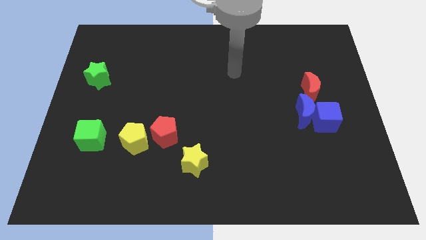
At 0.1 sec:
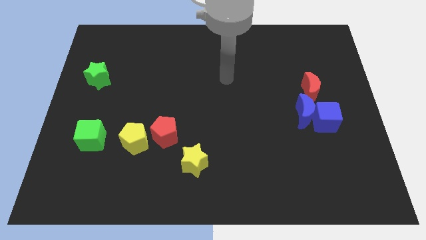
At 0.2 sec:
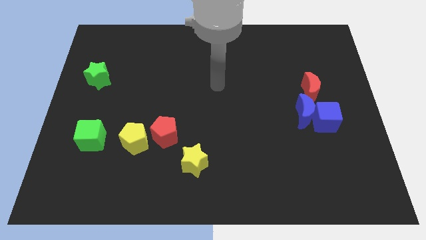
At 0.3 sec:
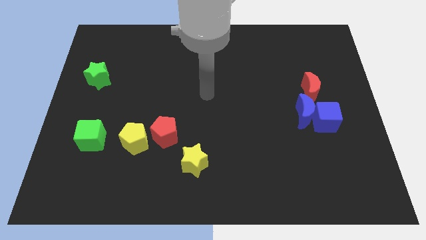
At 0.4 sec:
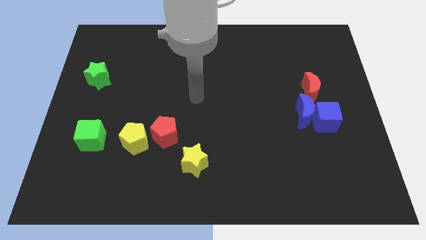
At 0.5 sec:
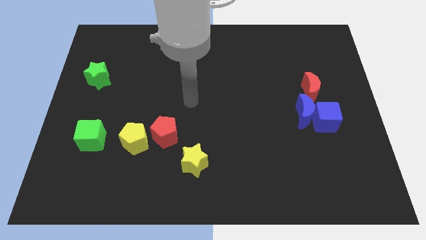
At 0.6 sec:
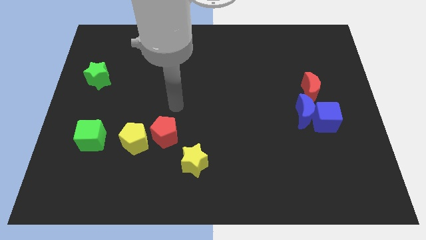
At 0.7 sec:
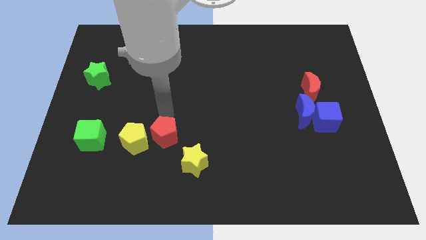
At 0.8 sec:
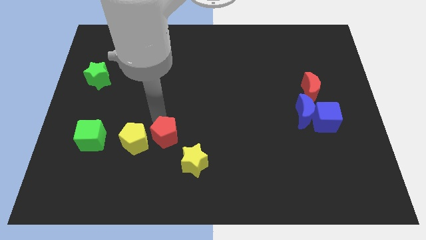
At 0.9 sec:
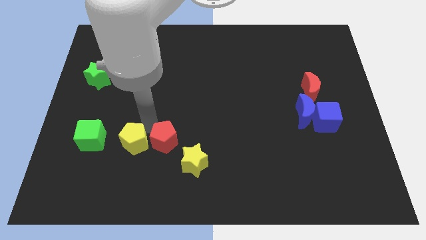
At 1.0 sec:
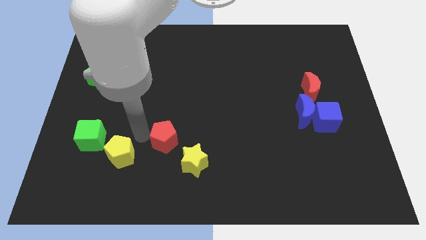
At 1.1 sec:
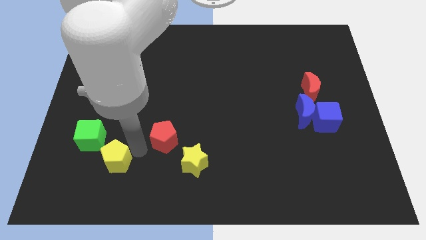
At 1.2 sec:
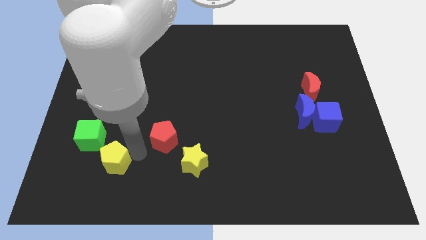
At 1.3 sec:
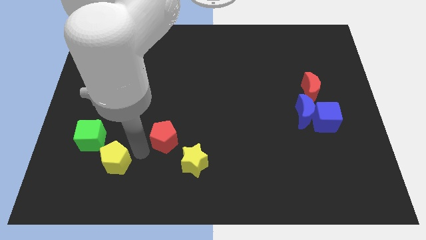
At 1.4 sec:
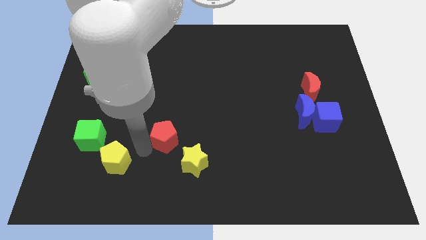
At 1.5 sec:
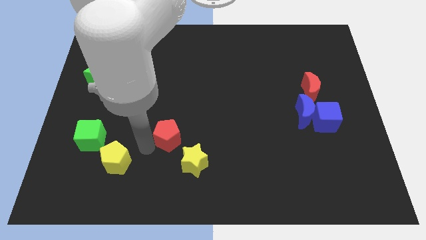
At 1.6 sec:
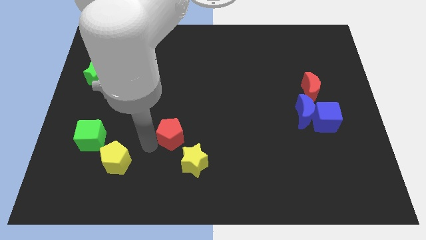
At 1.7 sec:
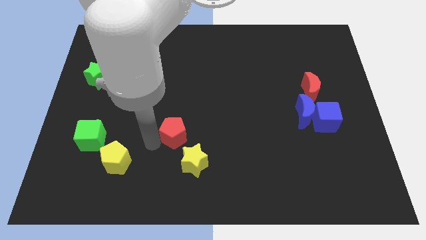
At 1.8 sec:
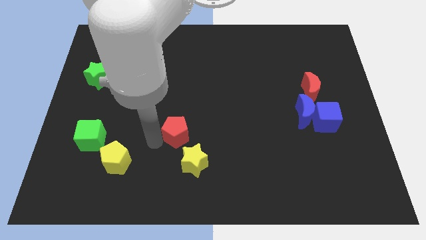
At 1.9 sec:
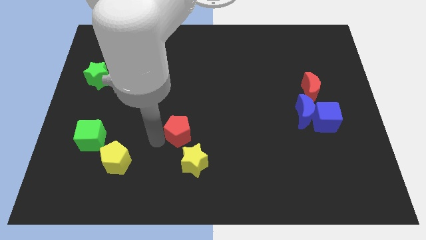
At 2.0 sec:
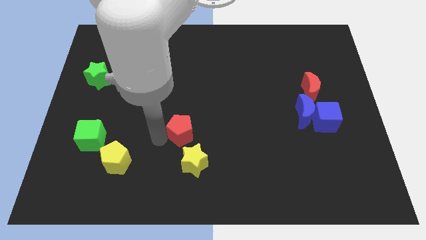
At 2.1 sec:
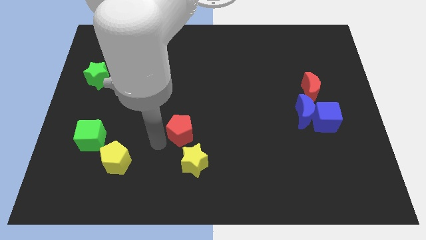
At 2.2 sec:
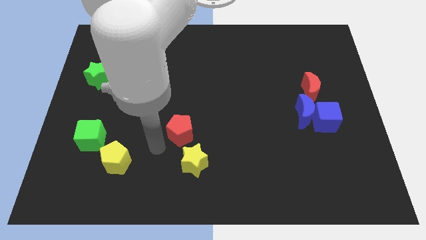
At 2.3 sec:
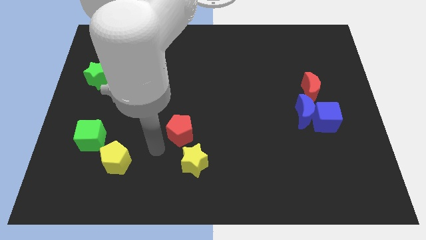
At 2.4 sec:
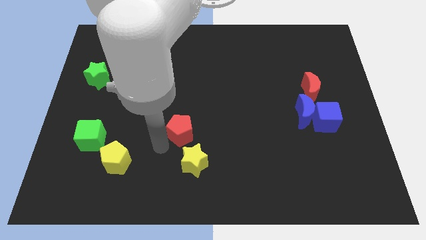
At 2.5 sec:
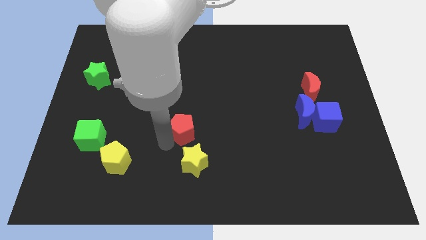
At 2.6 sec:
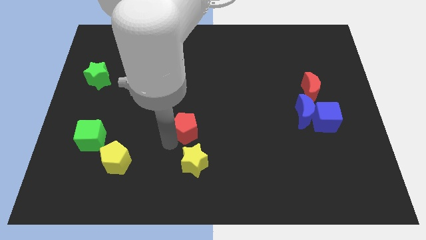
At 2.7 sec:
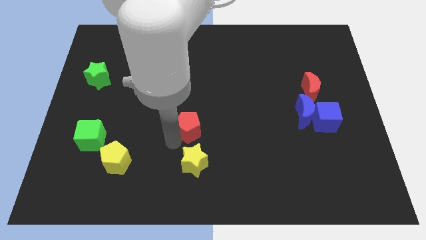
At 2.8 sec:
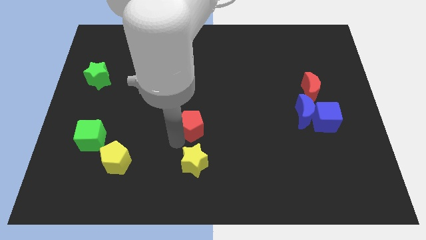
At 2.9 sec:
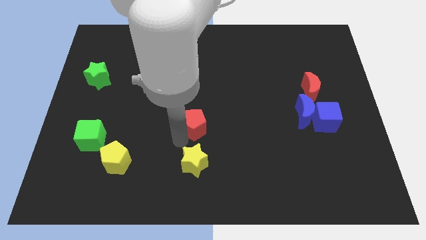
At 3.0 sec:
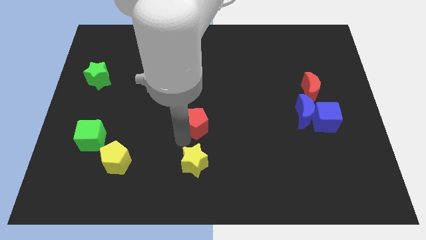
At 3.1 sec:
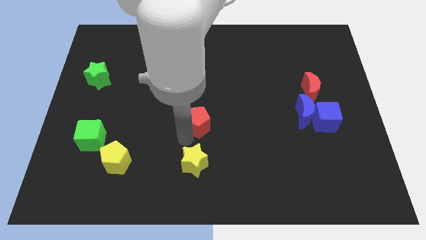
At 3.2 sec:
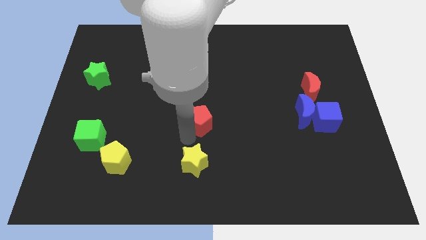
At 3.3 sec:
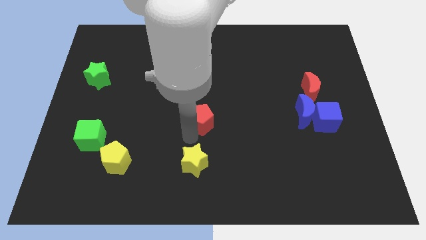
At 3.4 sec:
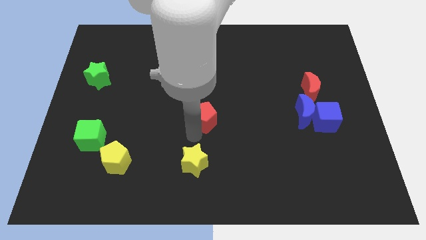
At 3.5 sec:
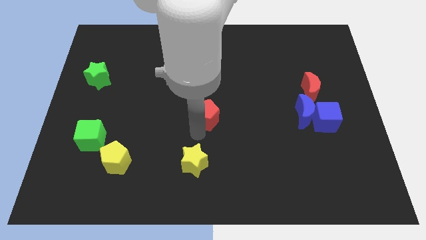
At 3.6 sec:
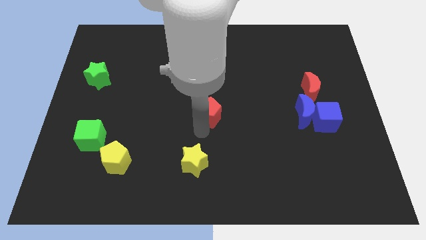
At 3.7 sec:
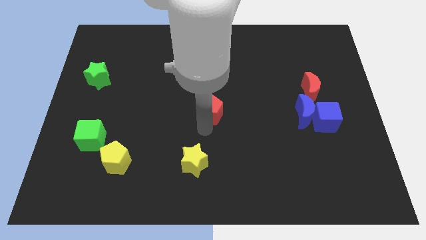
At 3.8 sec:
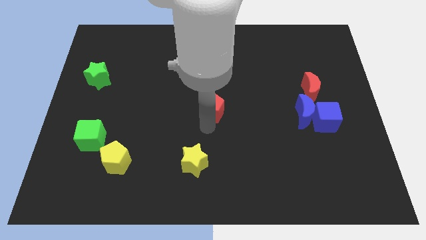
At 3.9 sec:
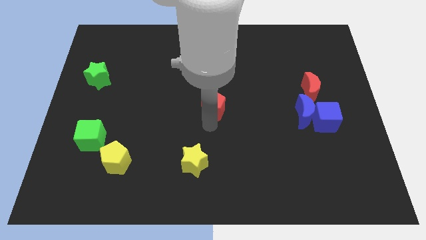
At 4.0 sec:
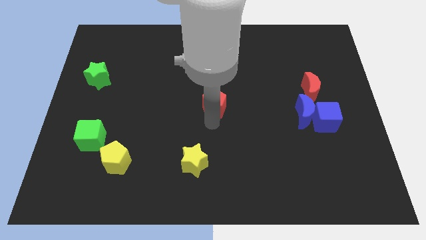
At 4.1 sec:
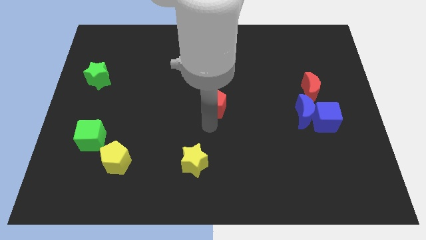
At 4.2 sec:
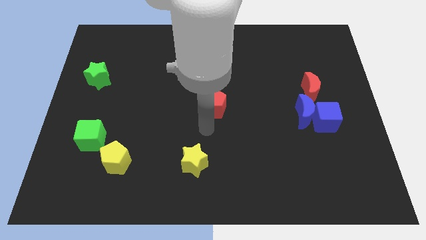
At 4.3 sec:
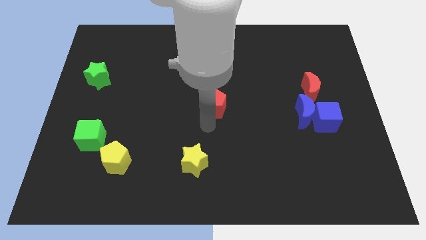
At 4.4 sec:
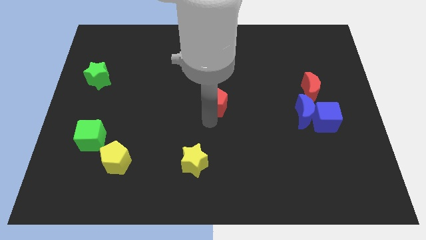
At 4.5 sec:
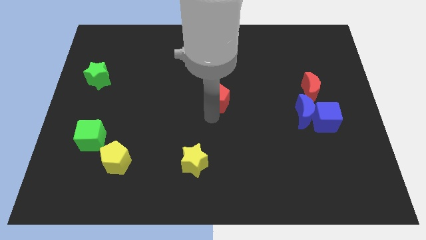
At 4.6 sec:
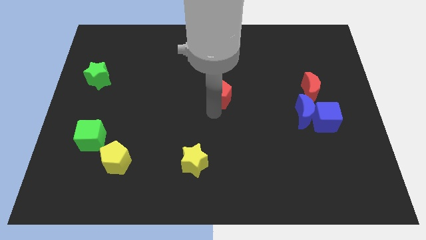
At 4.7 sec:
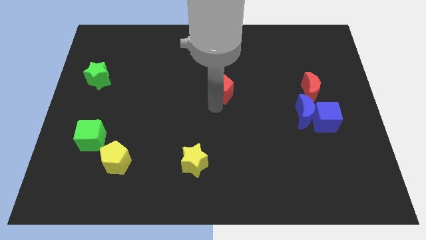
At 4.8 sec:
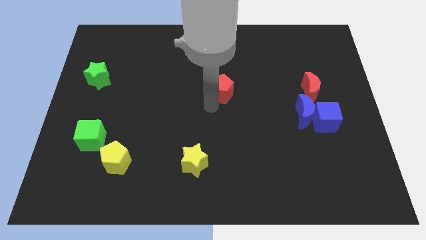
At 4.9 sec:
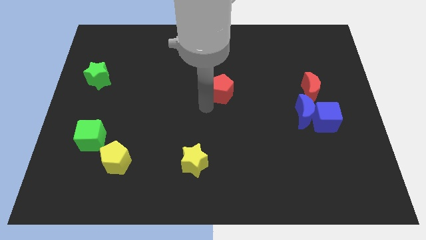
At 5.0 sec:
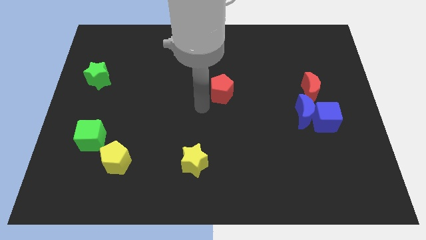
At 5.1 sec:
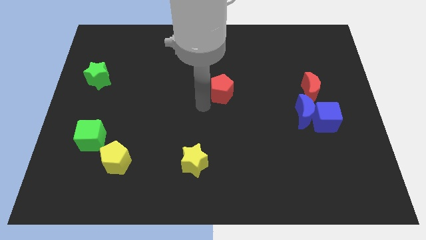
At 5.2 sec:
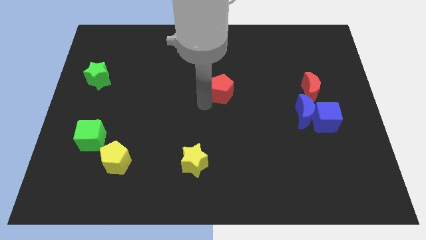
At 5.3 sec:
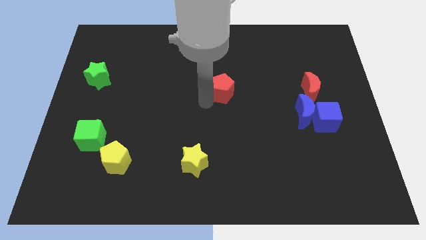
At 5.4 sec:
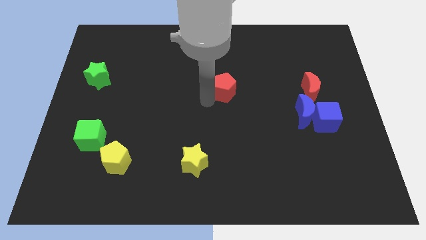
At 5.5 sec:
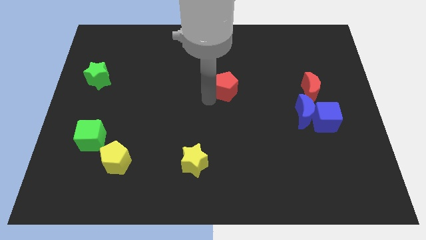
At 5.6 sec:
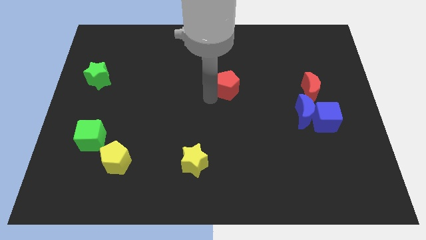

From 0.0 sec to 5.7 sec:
move the red pentagon upwards and to the right diagonally

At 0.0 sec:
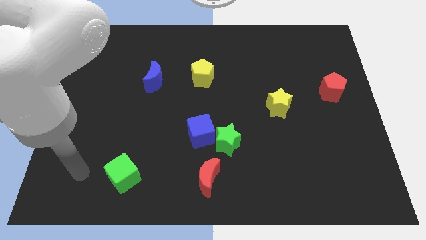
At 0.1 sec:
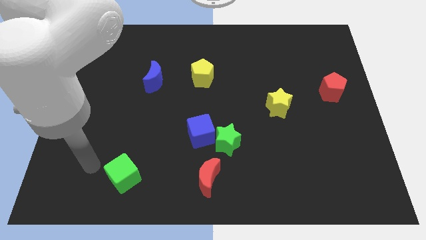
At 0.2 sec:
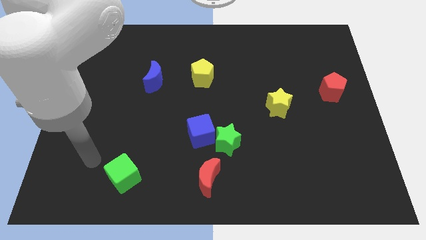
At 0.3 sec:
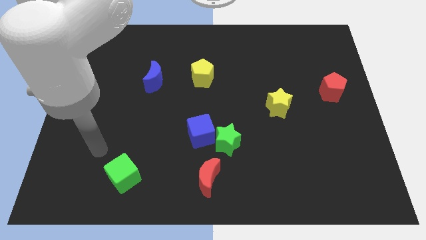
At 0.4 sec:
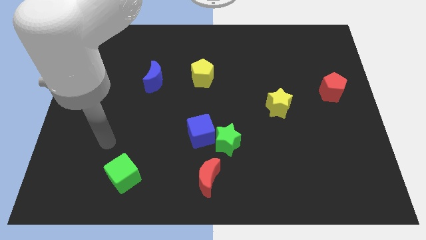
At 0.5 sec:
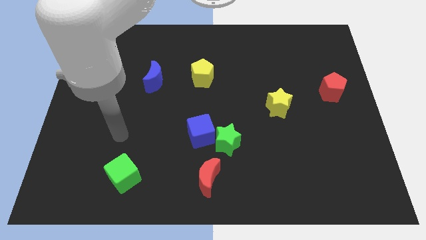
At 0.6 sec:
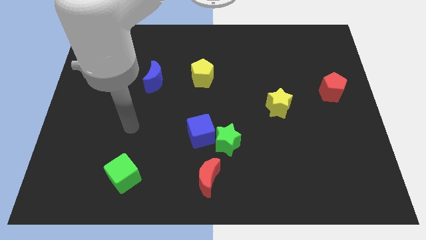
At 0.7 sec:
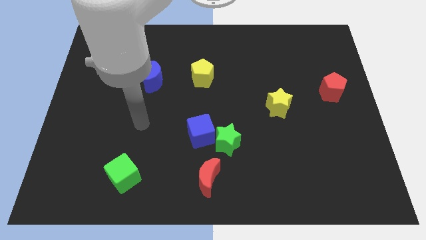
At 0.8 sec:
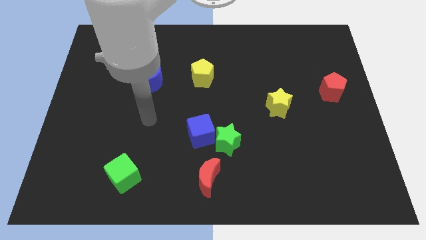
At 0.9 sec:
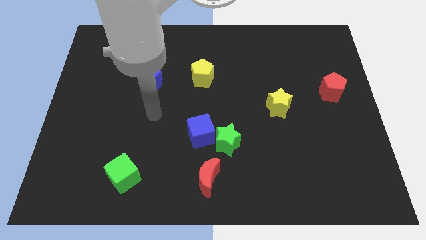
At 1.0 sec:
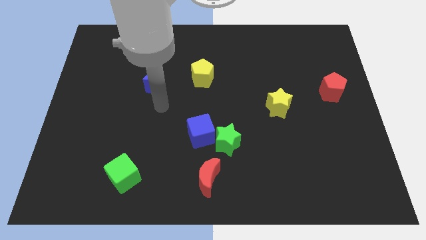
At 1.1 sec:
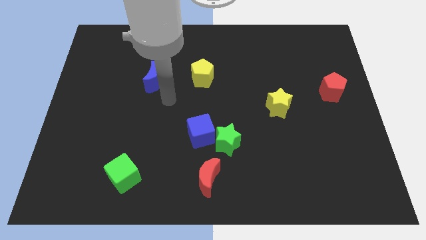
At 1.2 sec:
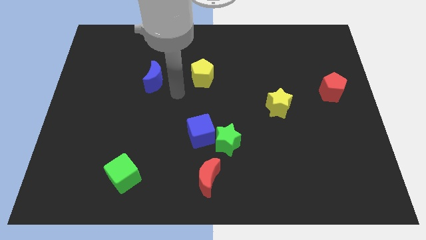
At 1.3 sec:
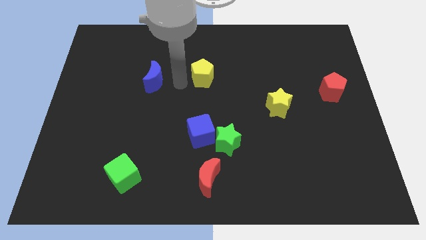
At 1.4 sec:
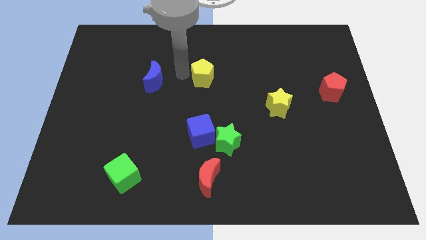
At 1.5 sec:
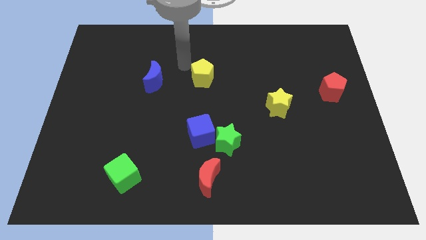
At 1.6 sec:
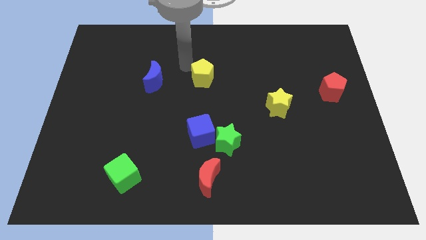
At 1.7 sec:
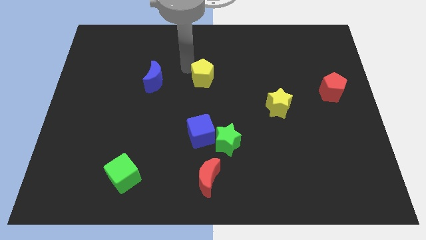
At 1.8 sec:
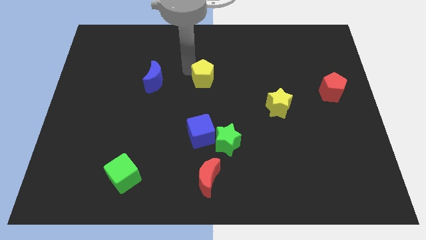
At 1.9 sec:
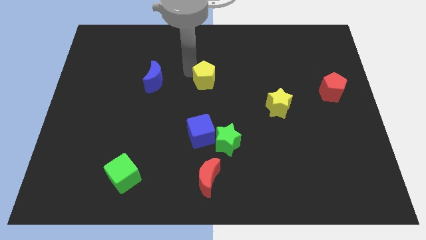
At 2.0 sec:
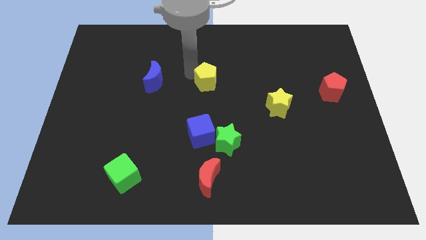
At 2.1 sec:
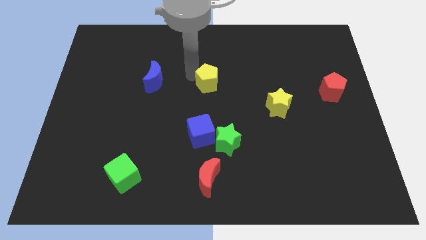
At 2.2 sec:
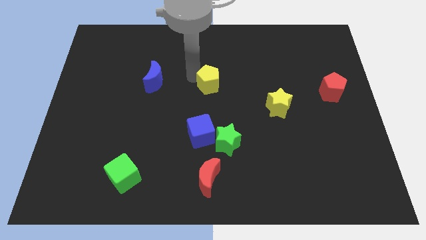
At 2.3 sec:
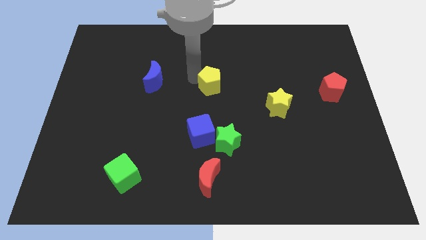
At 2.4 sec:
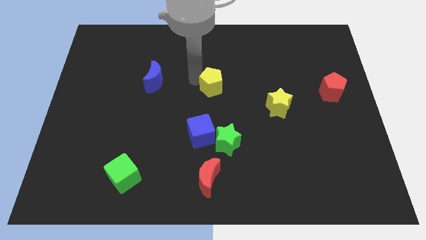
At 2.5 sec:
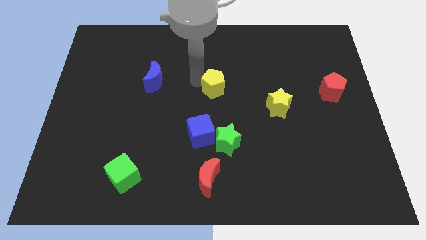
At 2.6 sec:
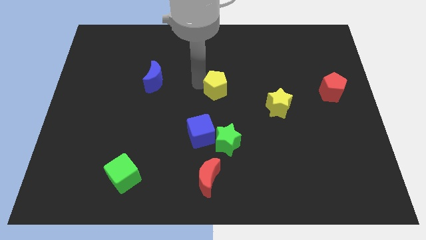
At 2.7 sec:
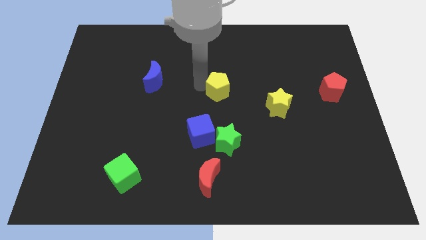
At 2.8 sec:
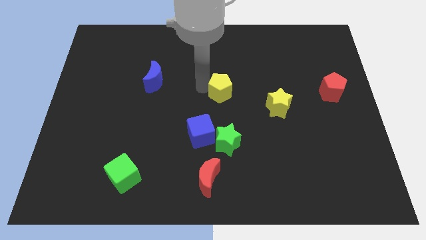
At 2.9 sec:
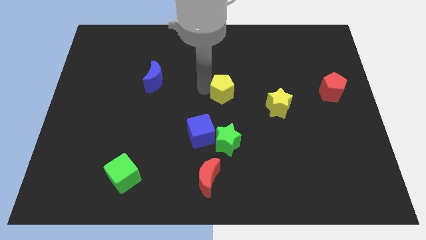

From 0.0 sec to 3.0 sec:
slightly push the yellow pentagon diagonally downwards and to the right
